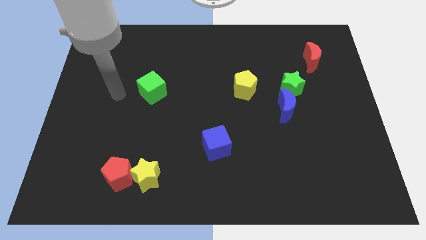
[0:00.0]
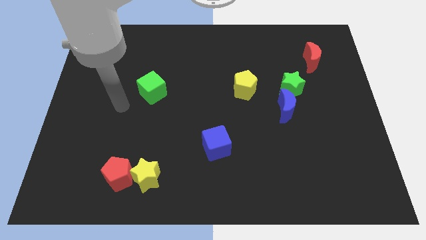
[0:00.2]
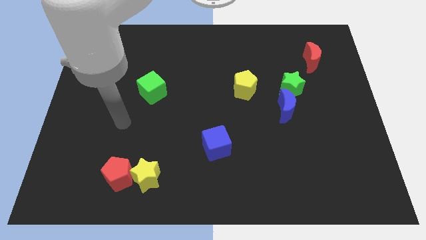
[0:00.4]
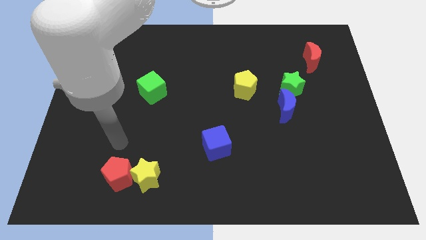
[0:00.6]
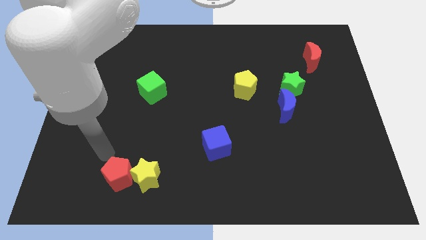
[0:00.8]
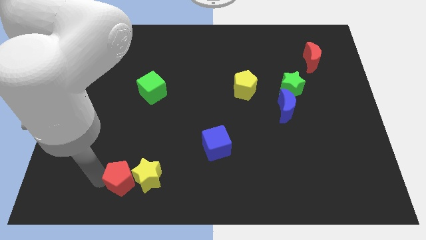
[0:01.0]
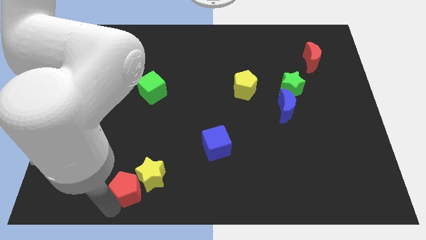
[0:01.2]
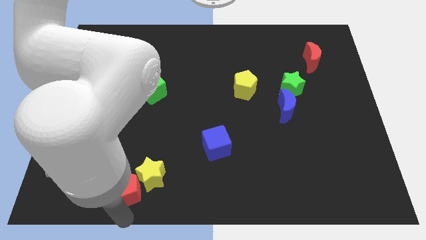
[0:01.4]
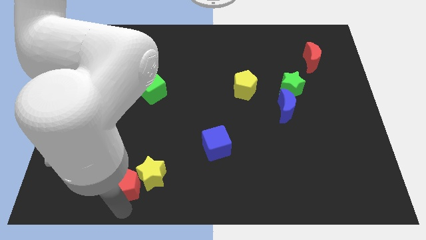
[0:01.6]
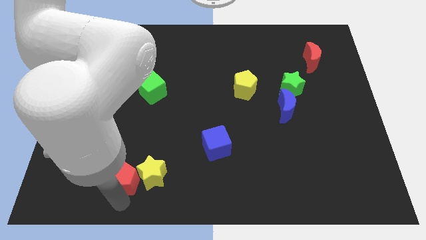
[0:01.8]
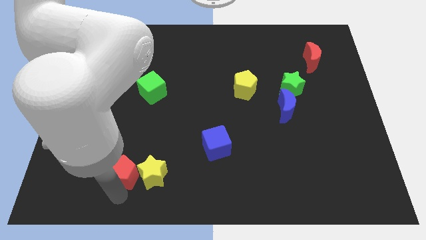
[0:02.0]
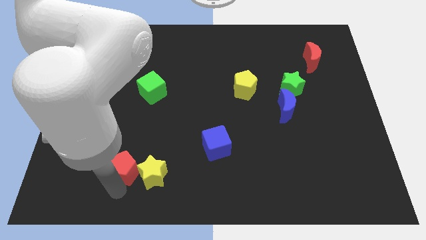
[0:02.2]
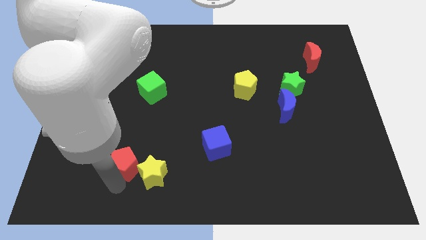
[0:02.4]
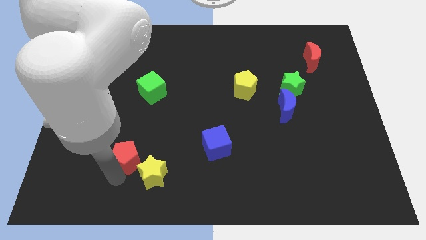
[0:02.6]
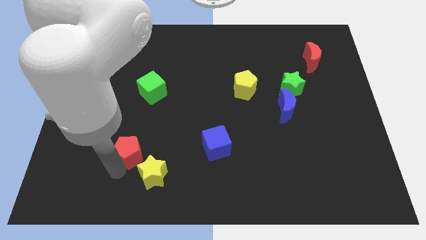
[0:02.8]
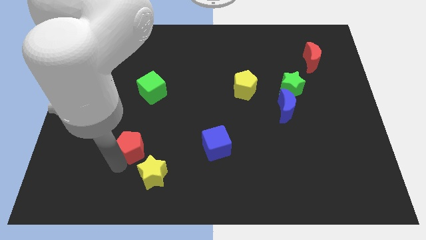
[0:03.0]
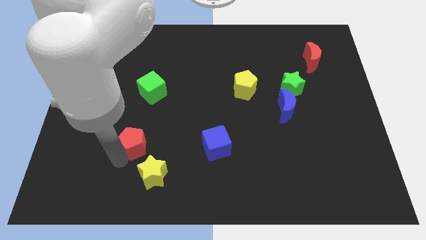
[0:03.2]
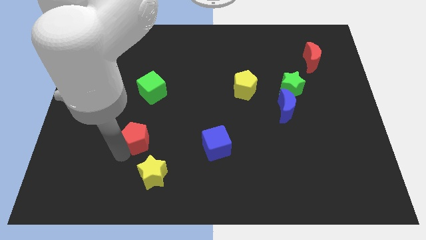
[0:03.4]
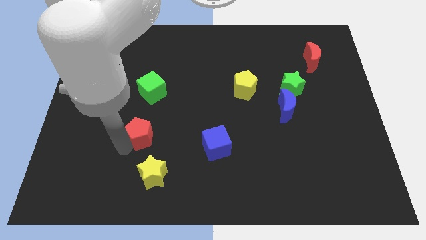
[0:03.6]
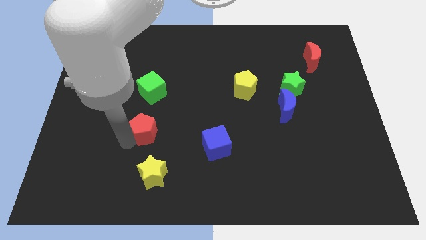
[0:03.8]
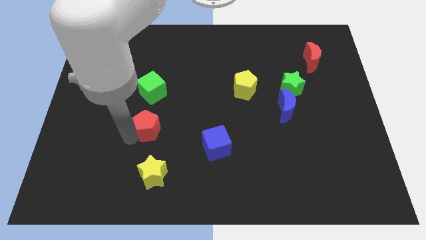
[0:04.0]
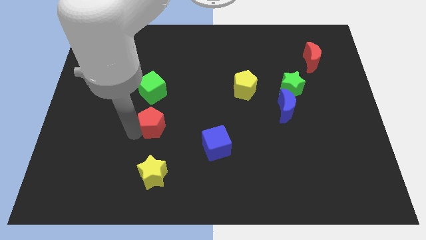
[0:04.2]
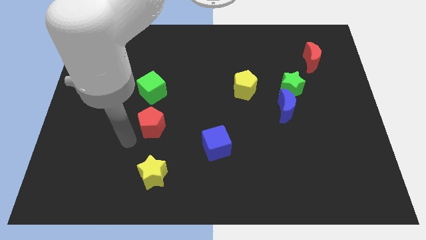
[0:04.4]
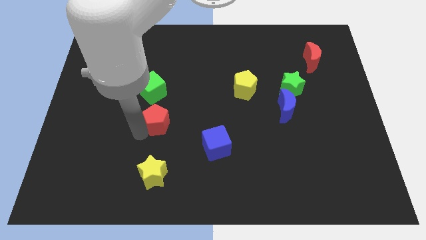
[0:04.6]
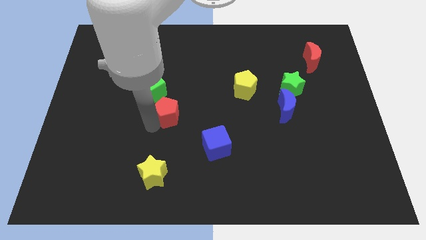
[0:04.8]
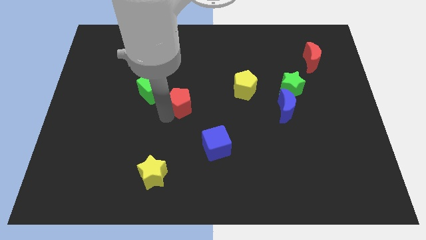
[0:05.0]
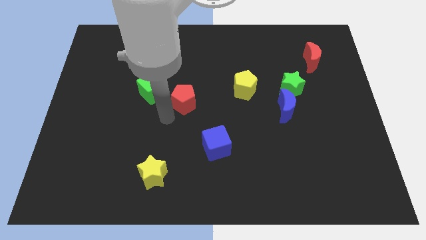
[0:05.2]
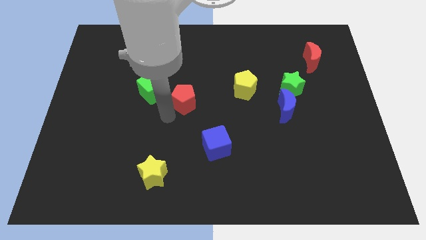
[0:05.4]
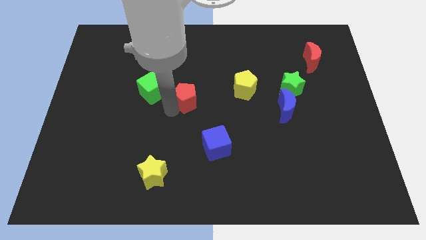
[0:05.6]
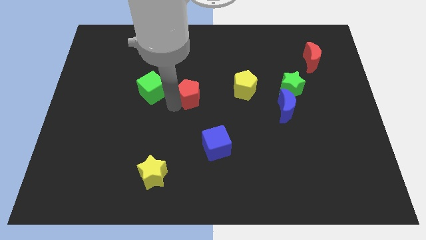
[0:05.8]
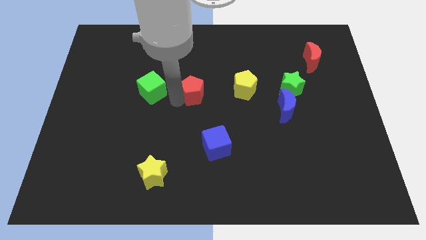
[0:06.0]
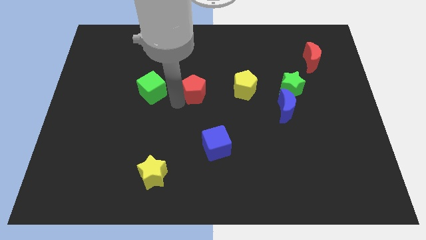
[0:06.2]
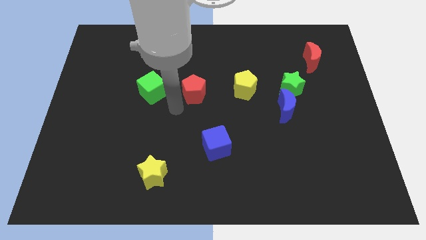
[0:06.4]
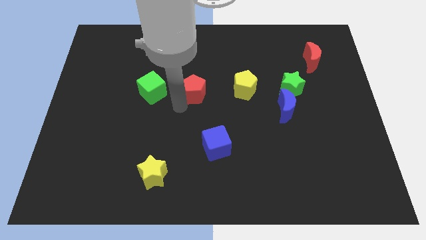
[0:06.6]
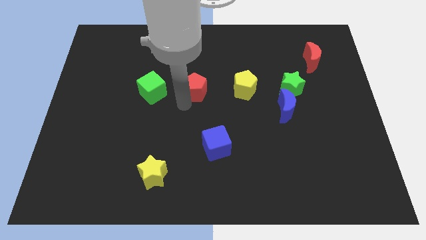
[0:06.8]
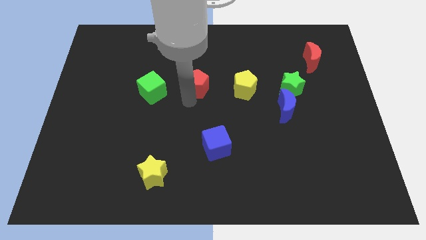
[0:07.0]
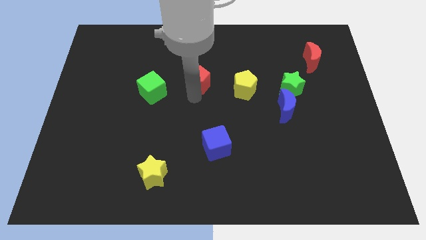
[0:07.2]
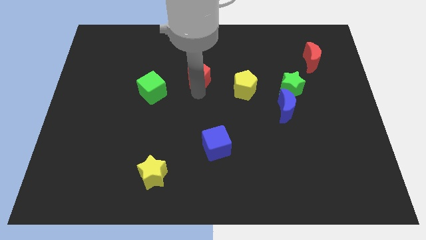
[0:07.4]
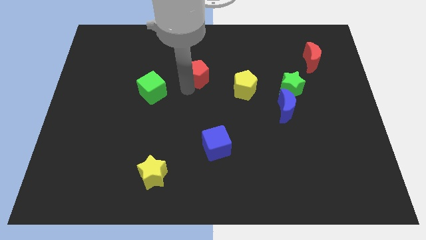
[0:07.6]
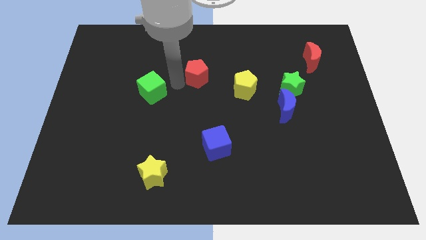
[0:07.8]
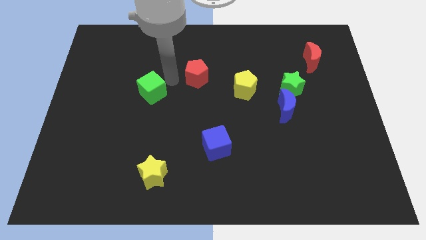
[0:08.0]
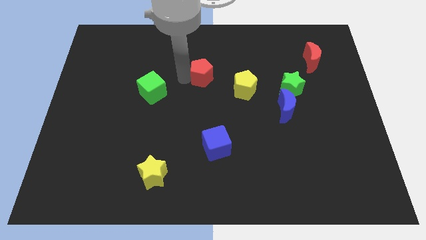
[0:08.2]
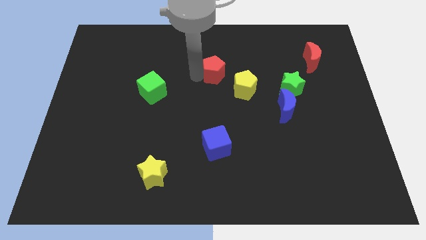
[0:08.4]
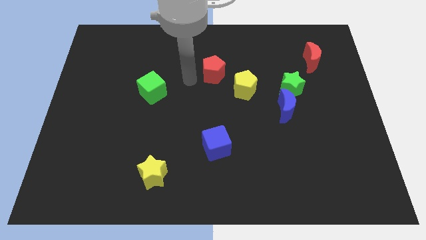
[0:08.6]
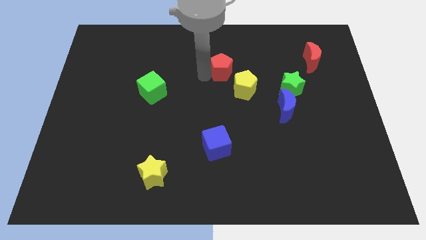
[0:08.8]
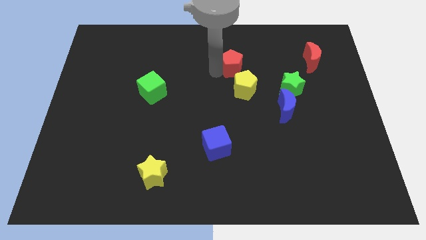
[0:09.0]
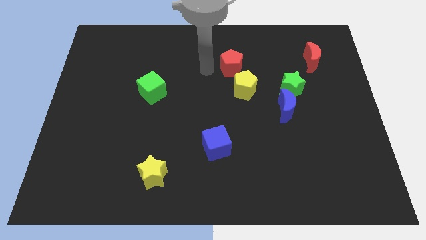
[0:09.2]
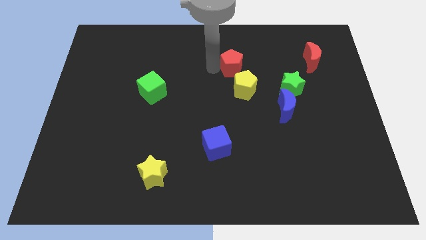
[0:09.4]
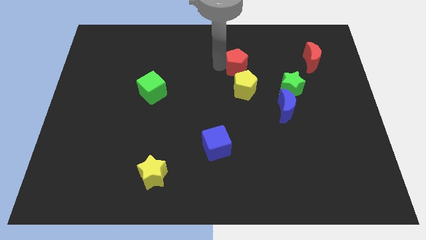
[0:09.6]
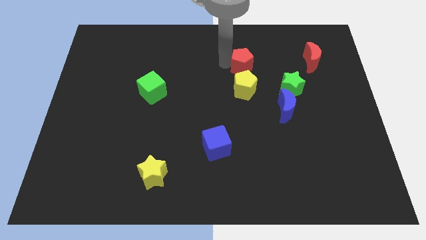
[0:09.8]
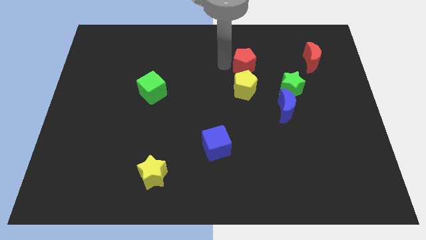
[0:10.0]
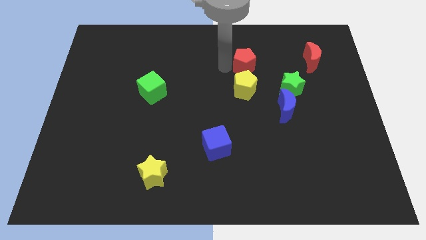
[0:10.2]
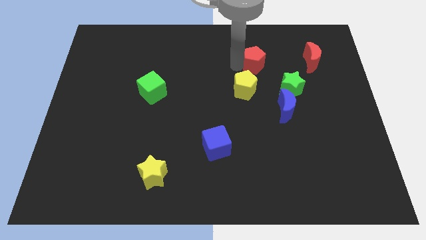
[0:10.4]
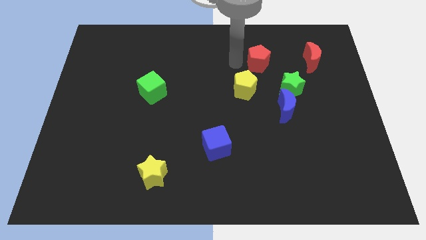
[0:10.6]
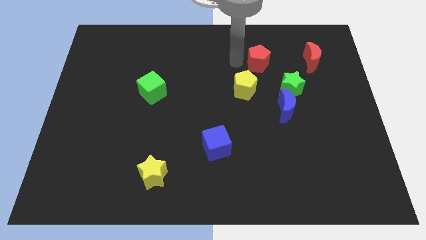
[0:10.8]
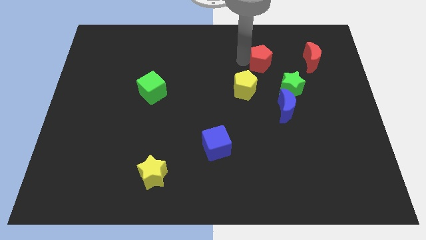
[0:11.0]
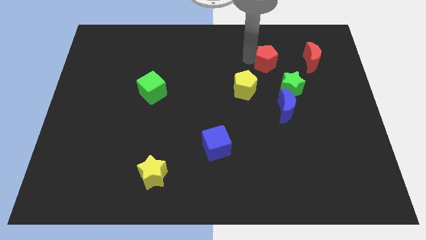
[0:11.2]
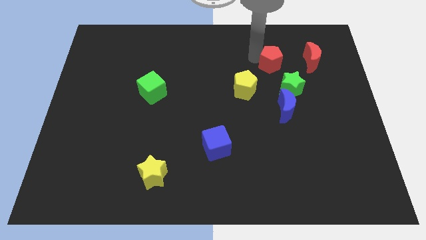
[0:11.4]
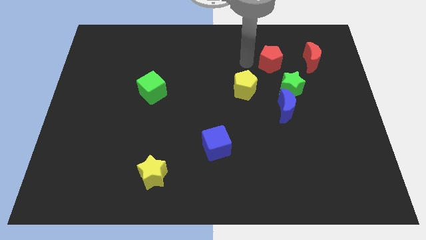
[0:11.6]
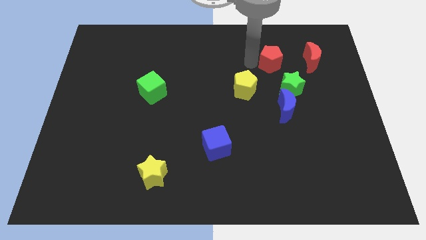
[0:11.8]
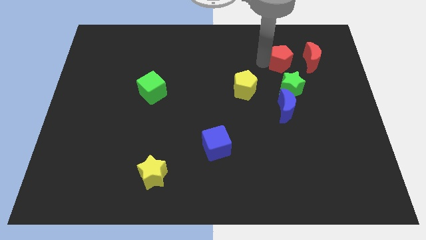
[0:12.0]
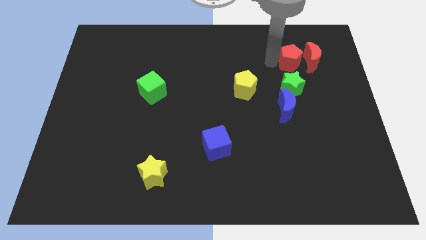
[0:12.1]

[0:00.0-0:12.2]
push the red pentagon to the red moon

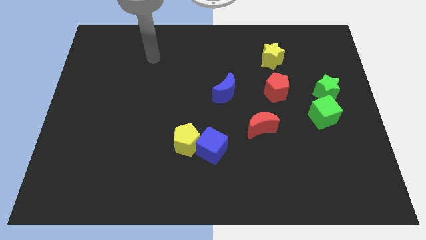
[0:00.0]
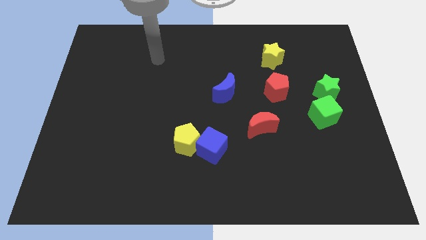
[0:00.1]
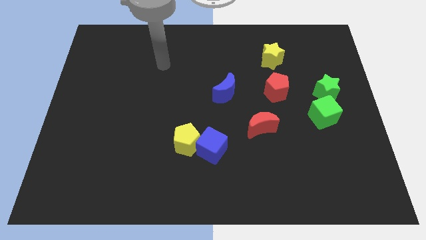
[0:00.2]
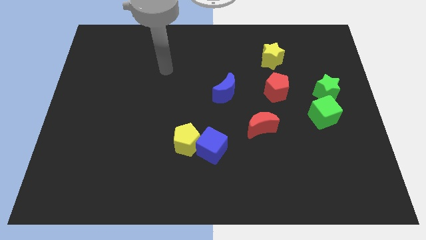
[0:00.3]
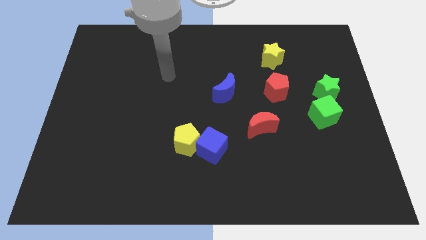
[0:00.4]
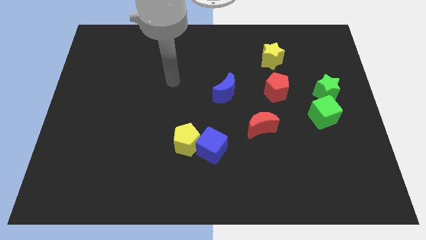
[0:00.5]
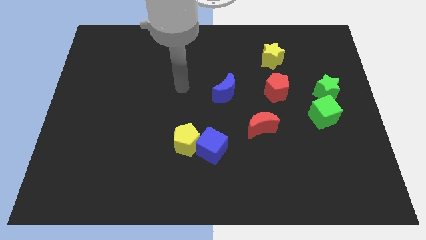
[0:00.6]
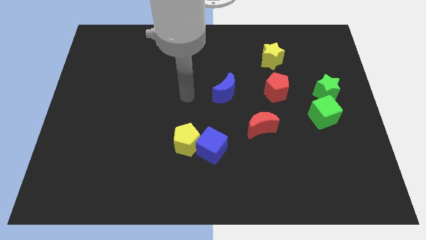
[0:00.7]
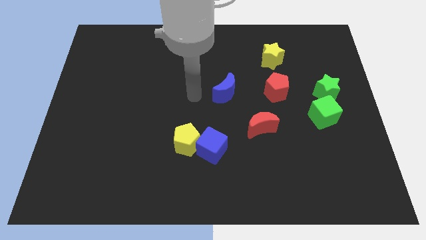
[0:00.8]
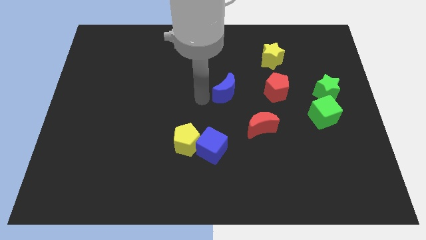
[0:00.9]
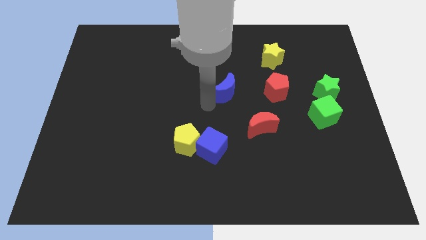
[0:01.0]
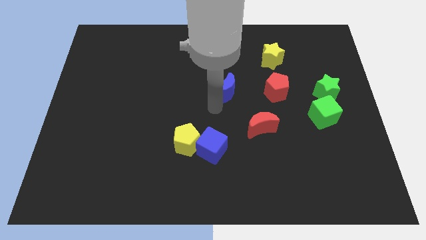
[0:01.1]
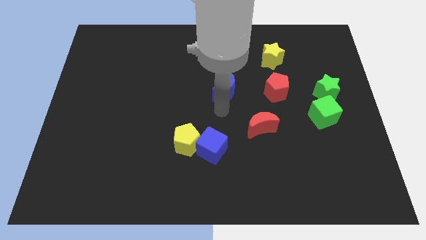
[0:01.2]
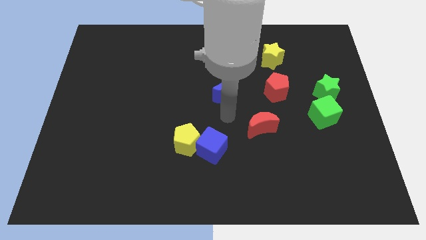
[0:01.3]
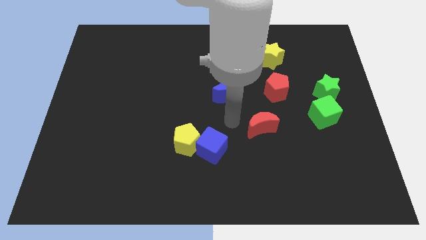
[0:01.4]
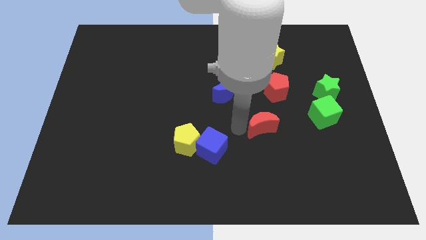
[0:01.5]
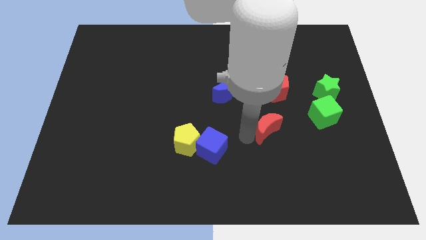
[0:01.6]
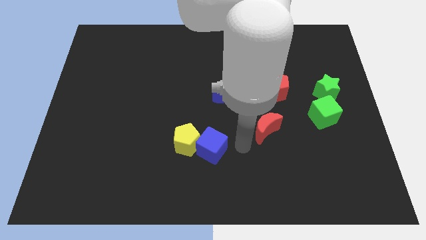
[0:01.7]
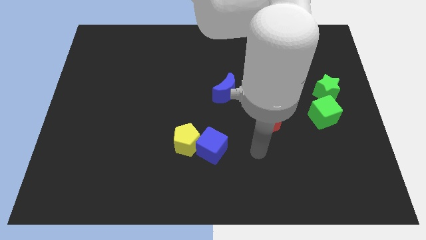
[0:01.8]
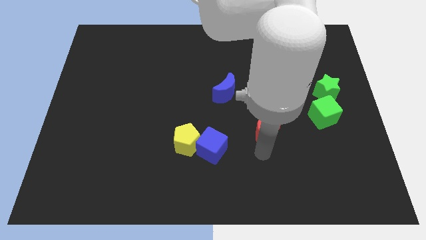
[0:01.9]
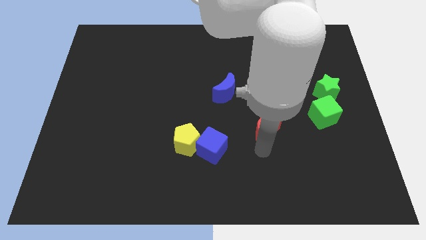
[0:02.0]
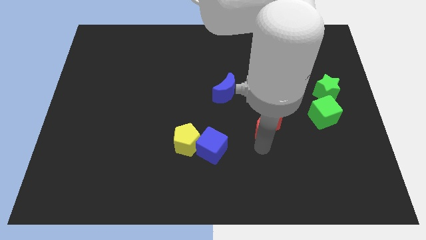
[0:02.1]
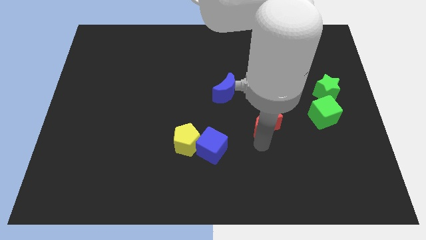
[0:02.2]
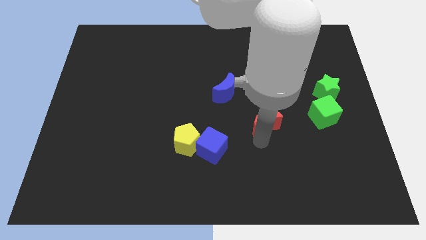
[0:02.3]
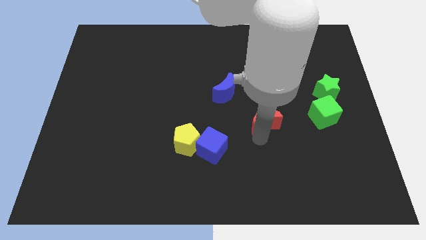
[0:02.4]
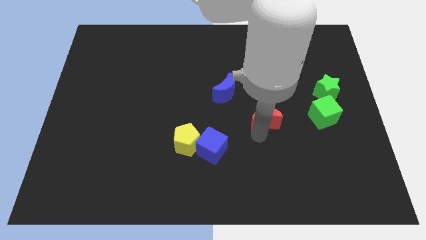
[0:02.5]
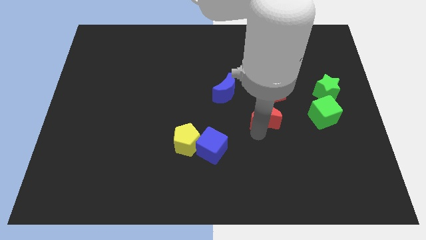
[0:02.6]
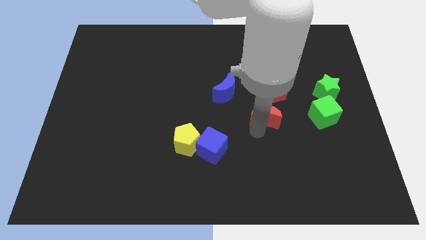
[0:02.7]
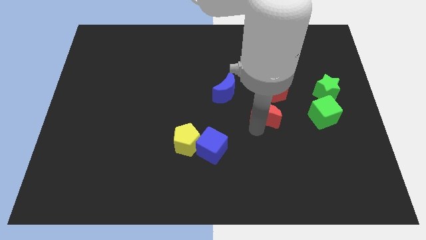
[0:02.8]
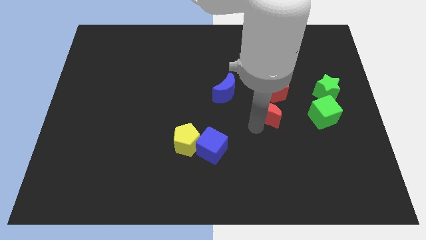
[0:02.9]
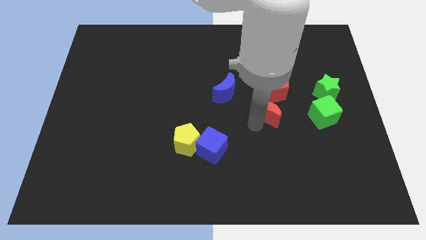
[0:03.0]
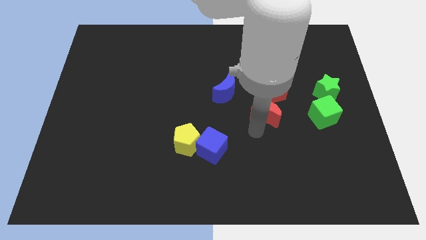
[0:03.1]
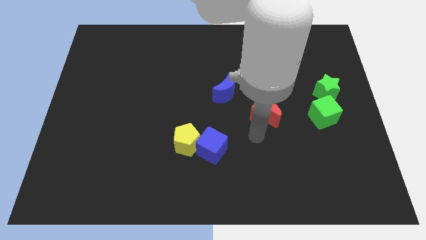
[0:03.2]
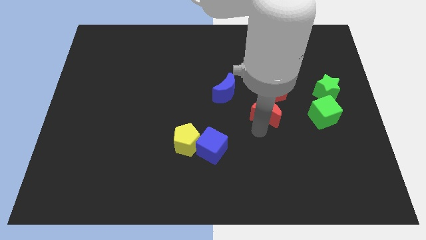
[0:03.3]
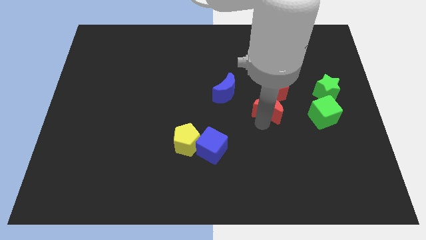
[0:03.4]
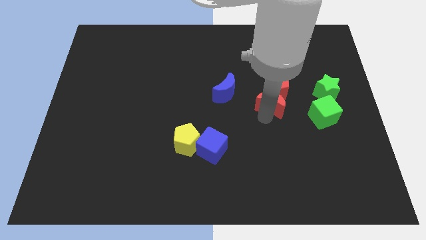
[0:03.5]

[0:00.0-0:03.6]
put the red moon next to the red pentagon
